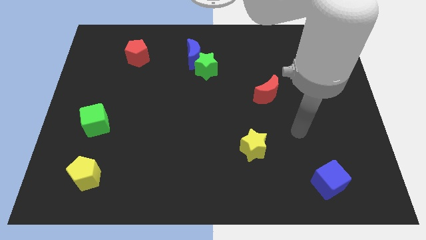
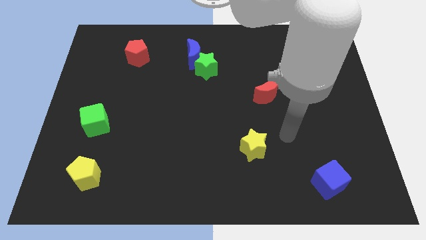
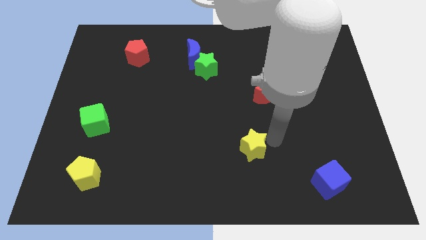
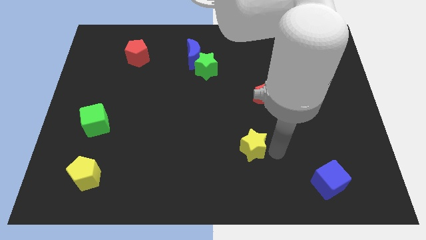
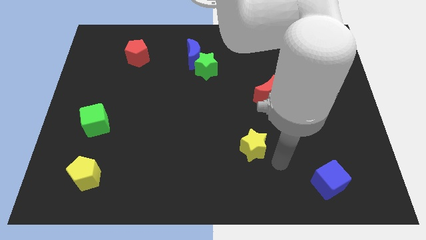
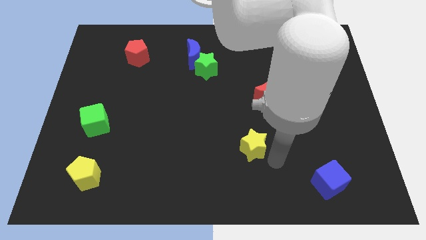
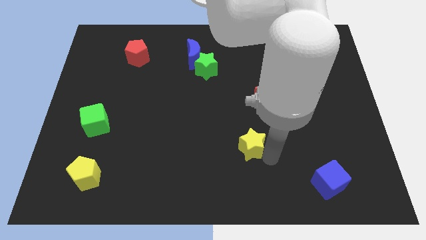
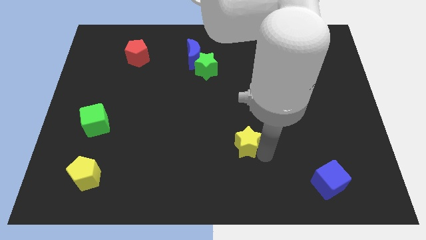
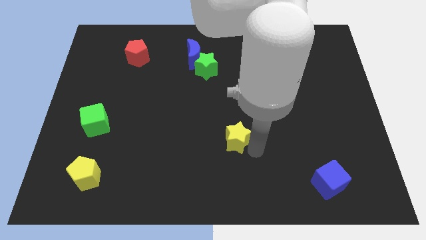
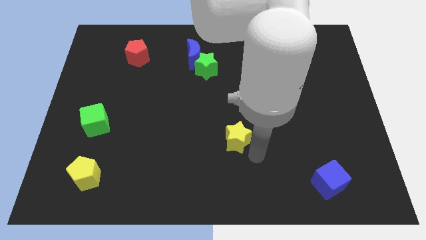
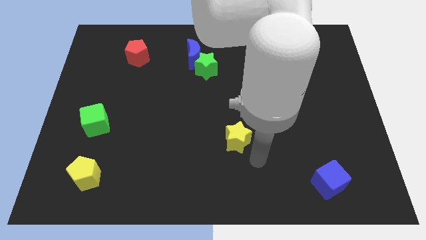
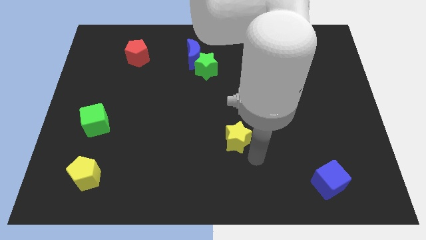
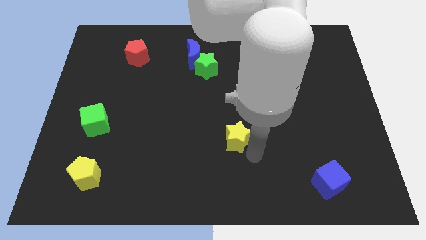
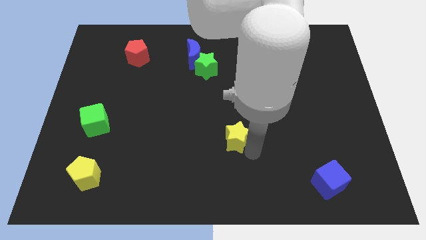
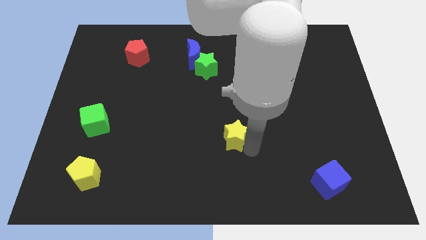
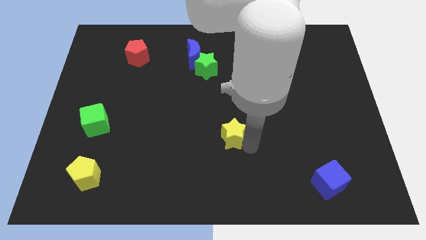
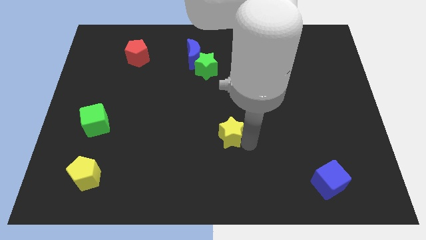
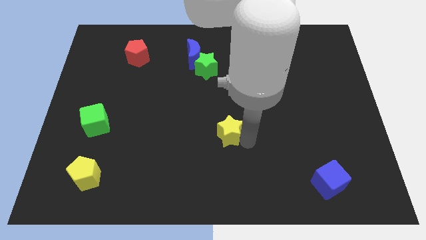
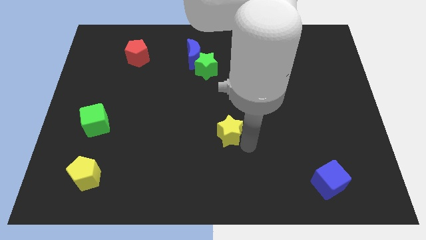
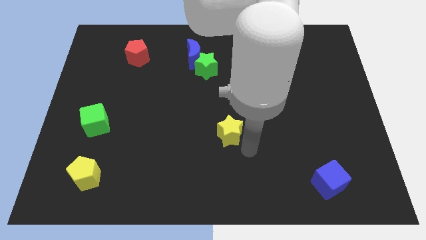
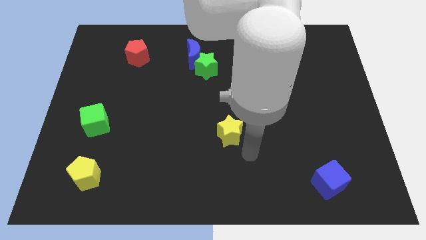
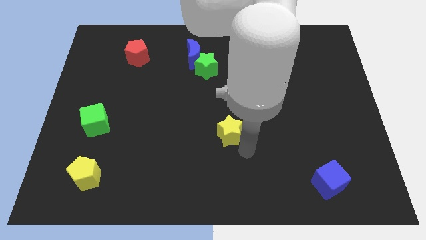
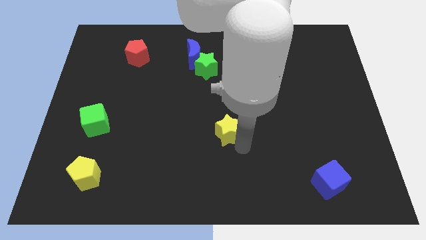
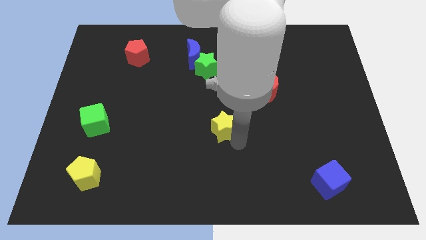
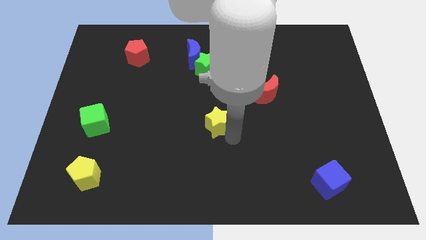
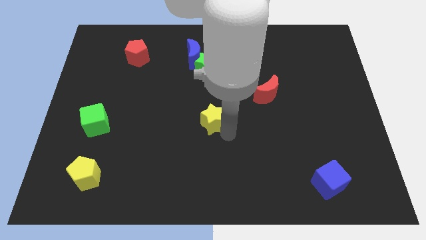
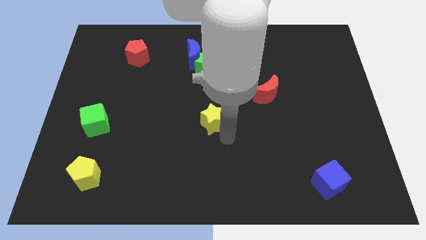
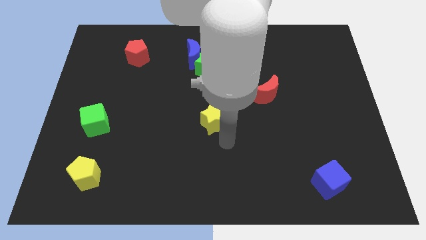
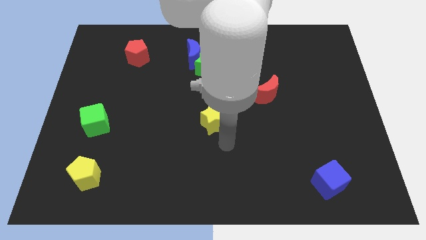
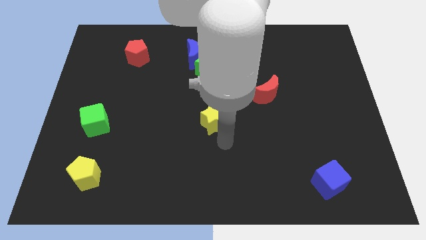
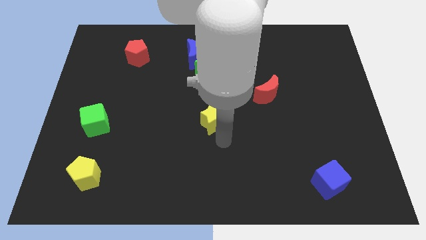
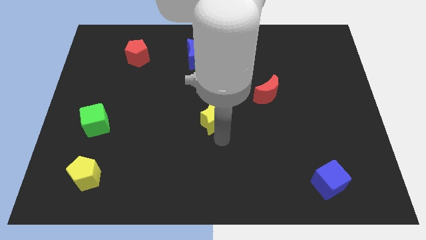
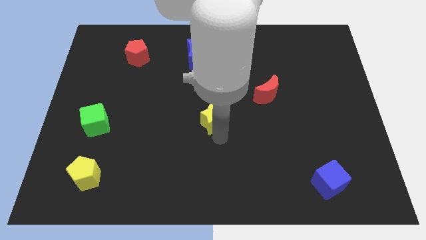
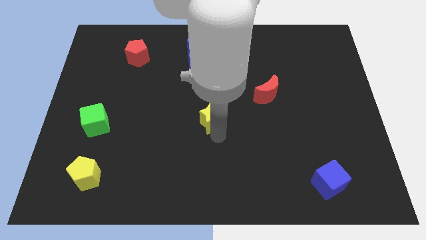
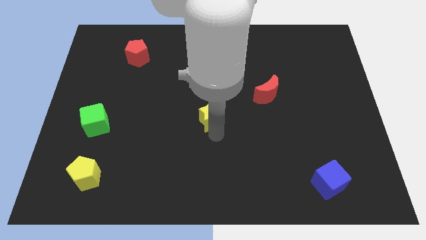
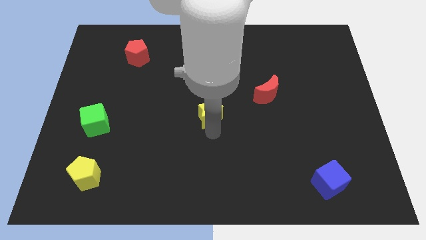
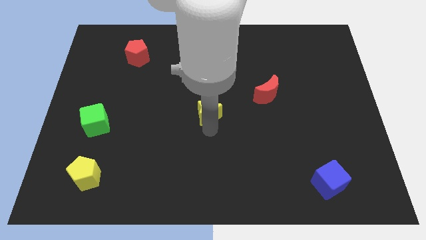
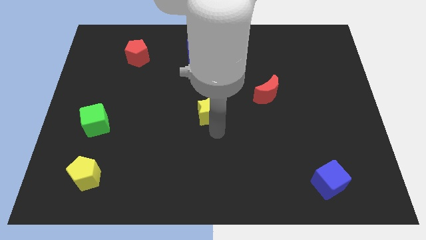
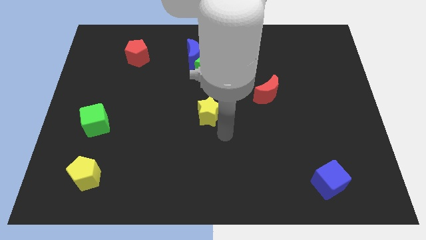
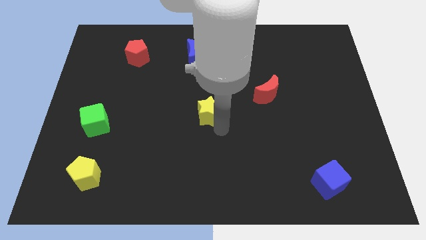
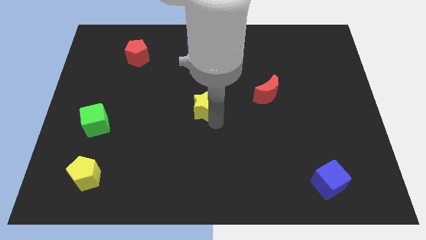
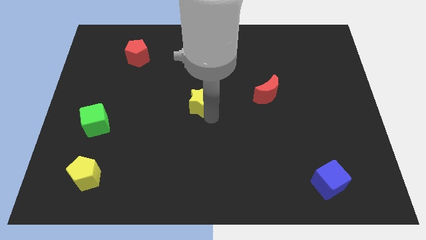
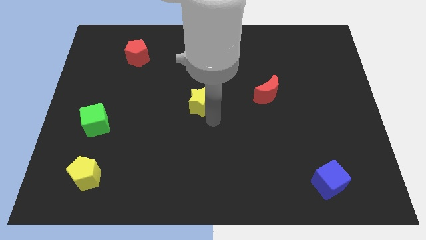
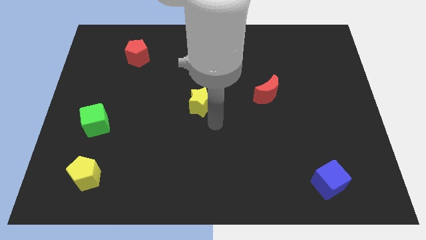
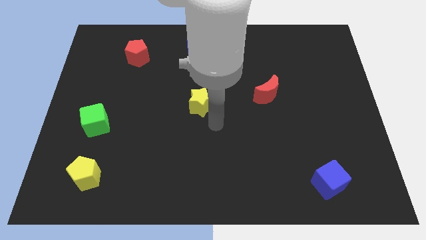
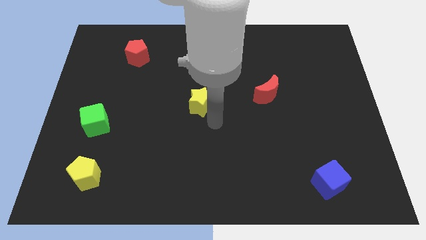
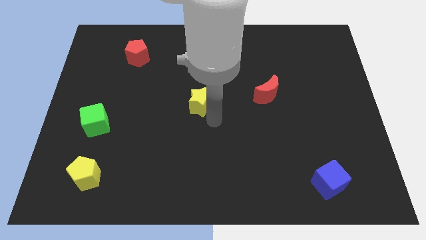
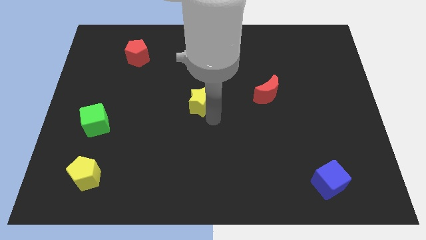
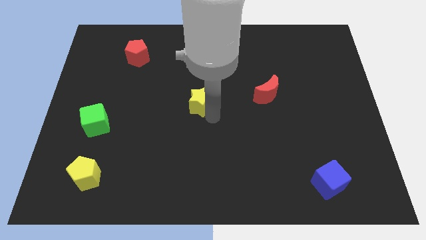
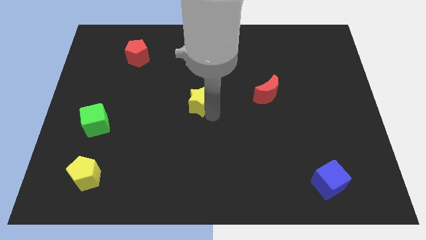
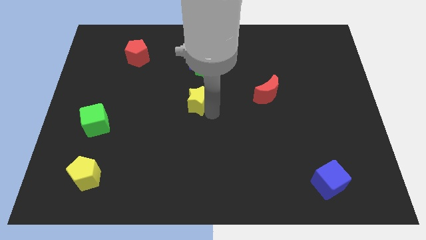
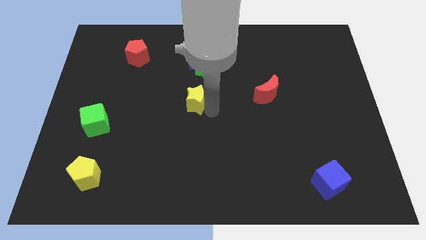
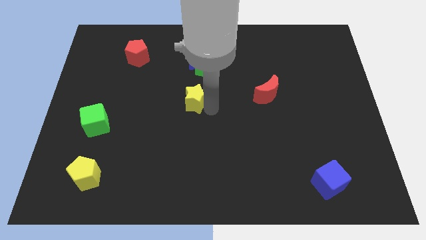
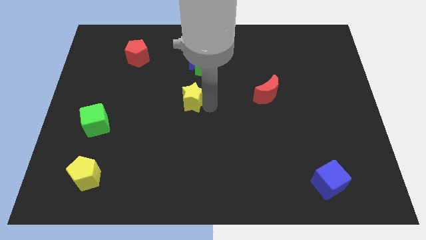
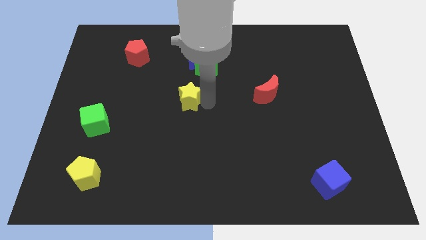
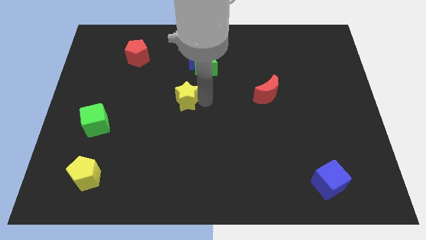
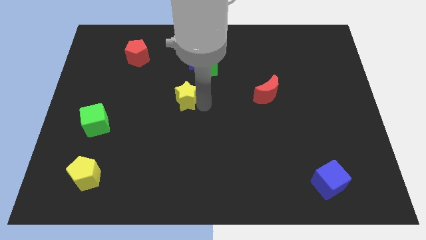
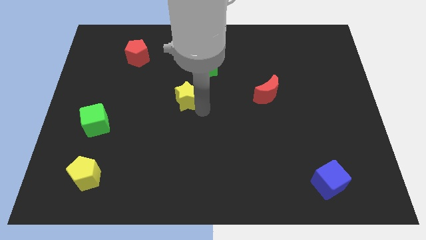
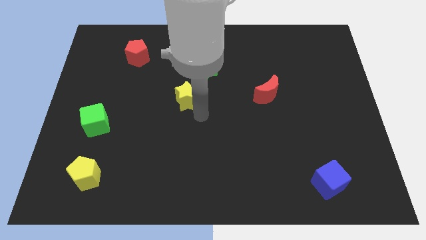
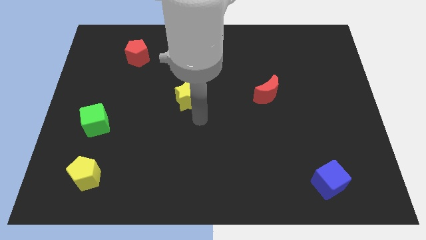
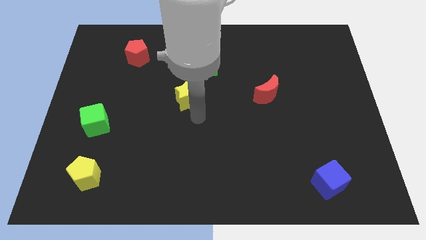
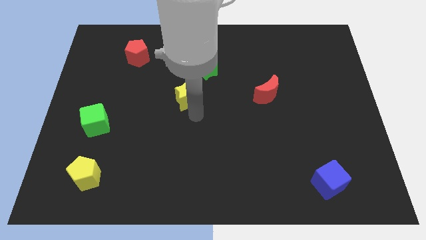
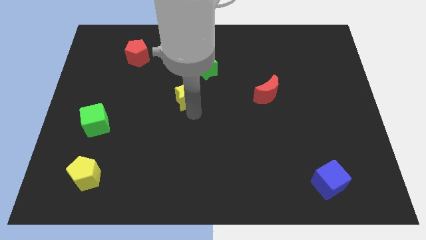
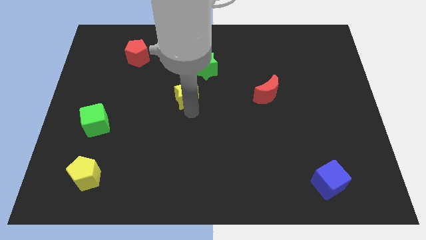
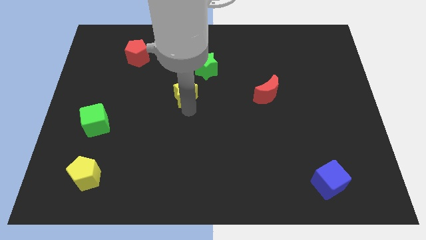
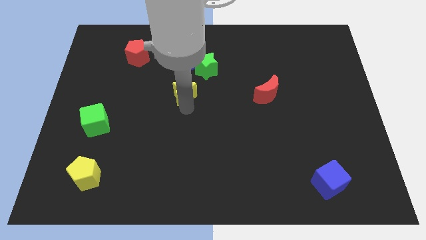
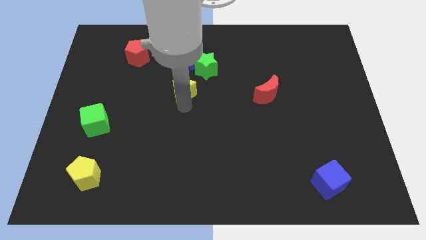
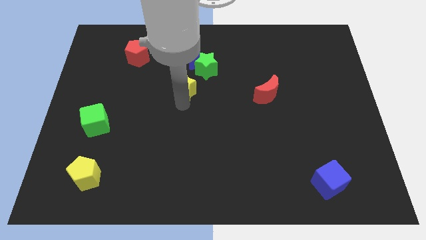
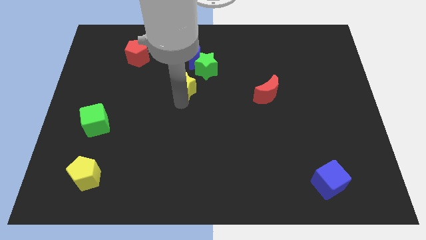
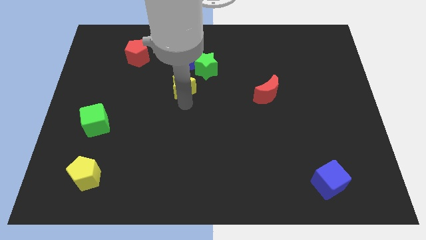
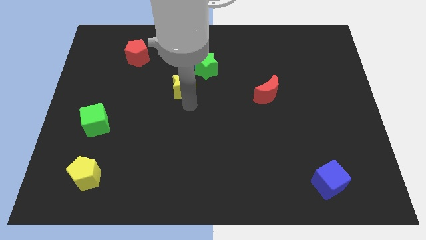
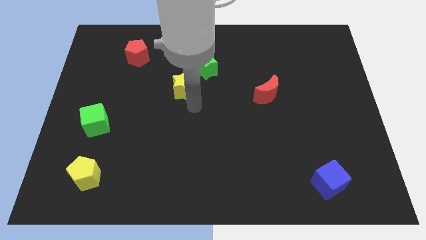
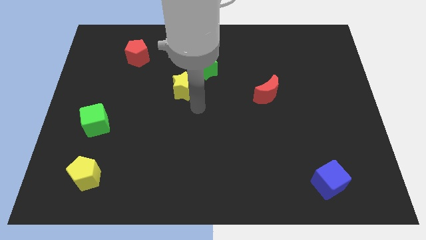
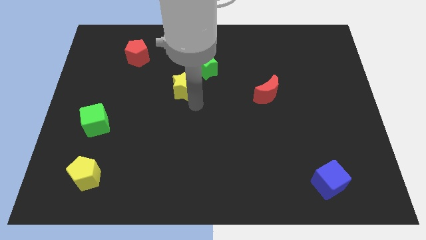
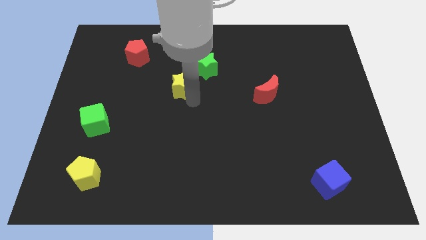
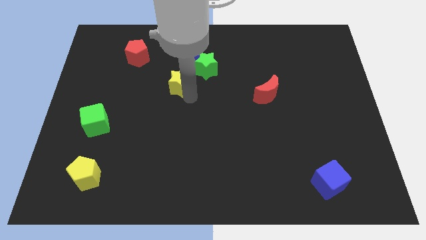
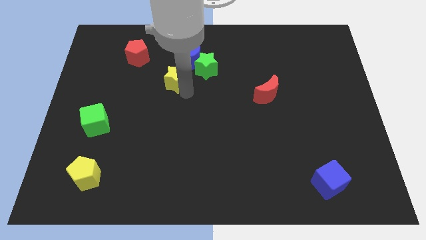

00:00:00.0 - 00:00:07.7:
put the yellow star just left of the green star

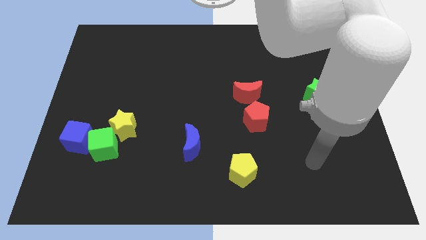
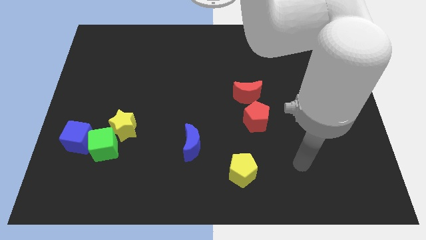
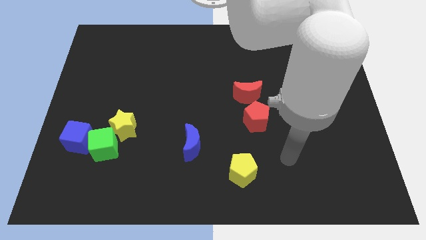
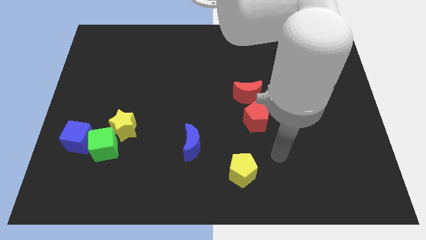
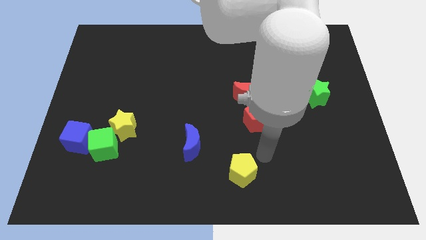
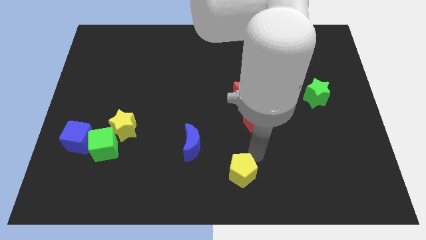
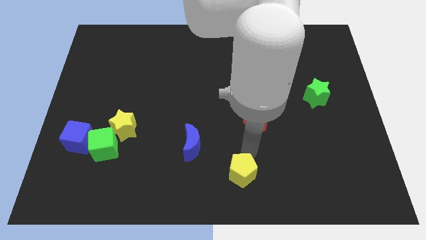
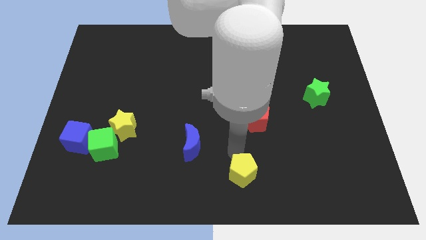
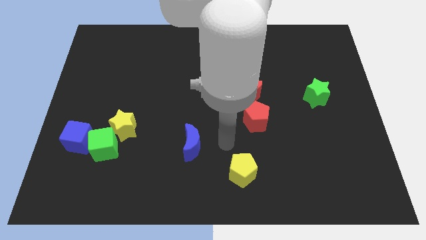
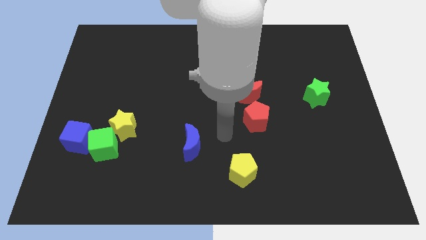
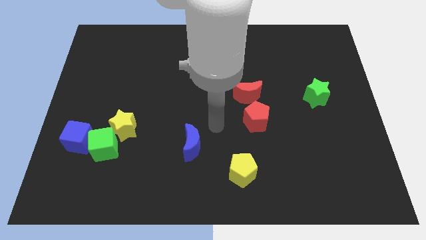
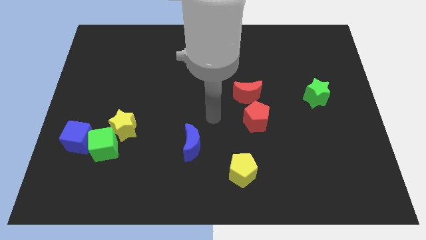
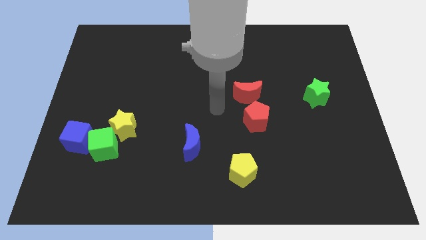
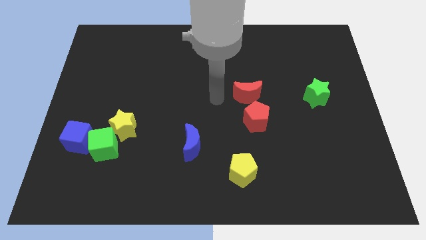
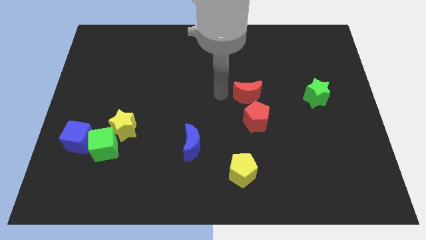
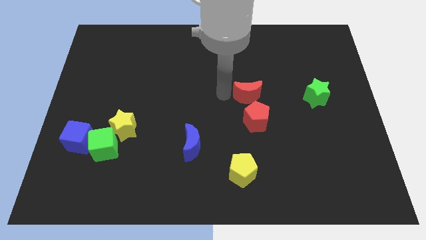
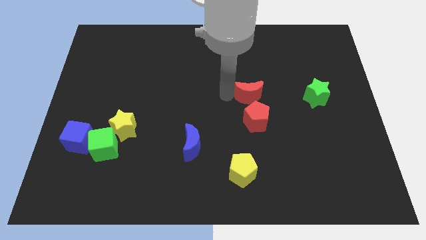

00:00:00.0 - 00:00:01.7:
move the red moon to the left side of the green star
